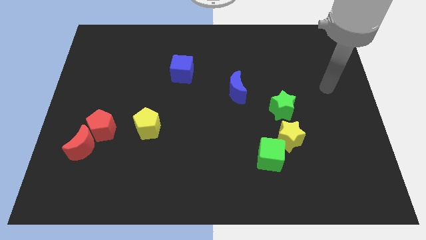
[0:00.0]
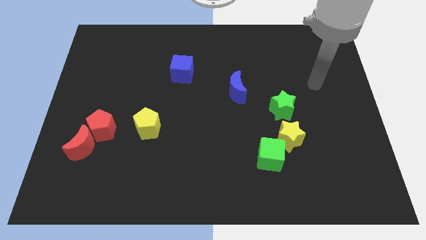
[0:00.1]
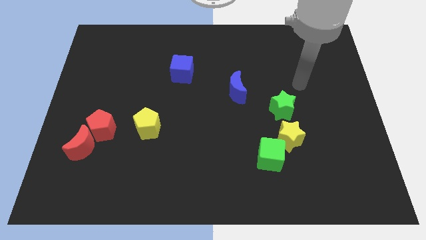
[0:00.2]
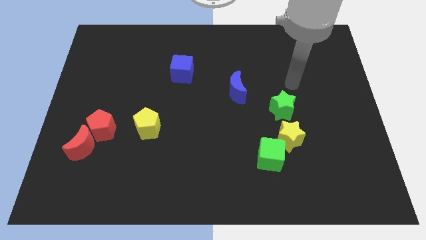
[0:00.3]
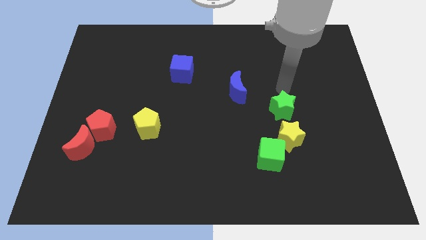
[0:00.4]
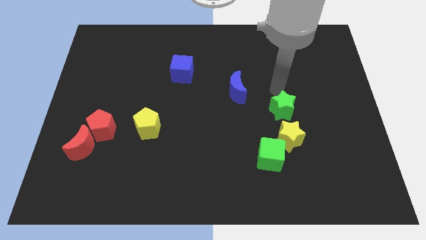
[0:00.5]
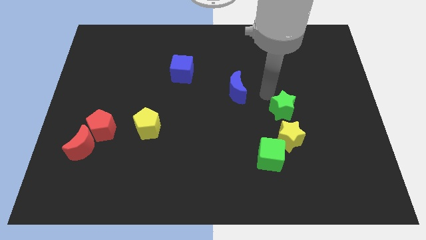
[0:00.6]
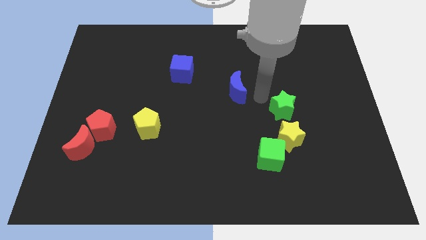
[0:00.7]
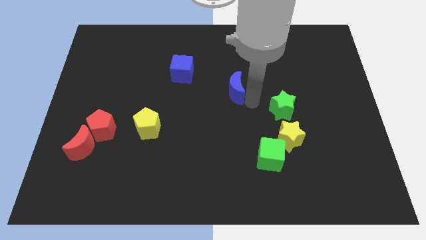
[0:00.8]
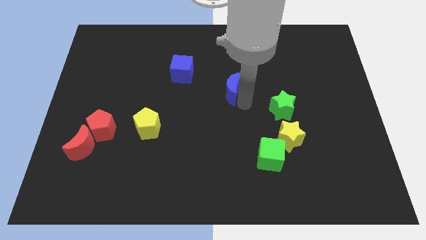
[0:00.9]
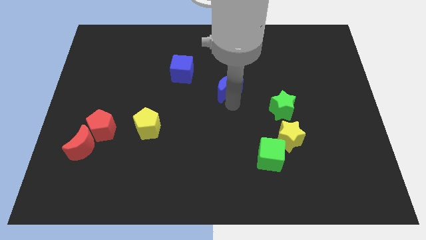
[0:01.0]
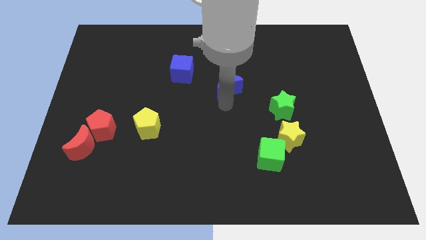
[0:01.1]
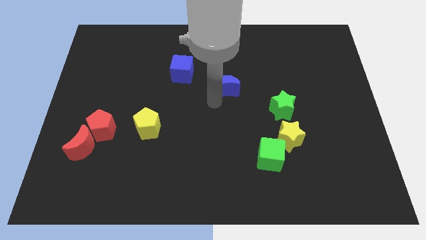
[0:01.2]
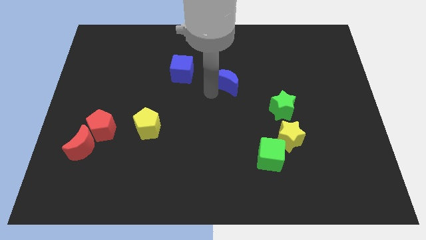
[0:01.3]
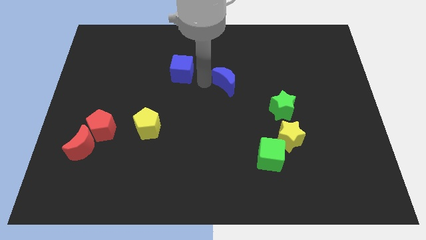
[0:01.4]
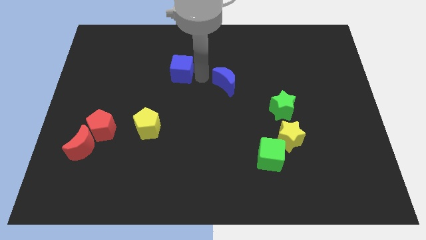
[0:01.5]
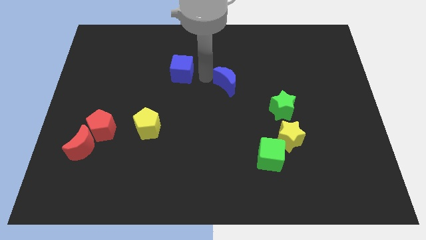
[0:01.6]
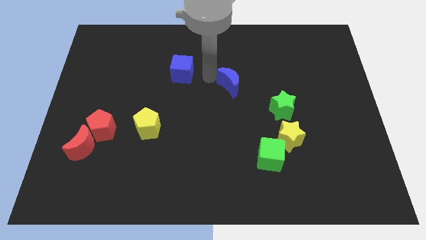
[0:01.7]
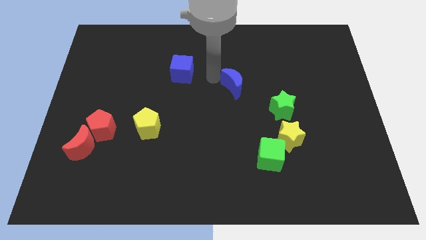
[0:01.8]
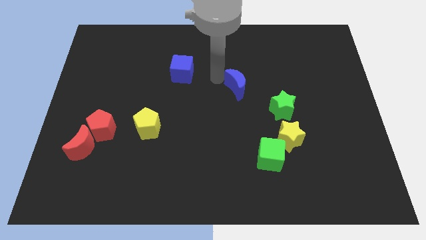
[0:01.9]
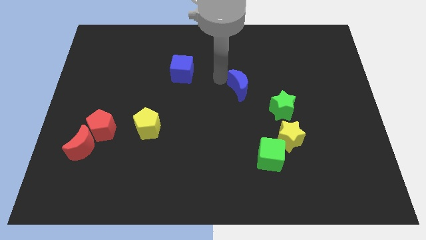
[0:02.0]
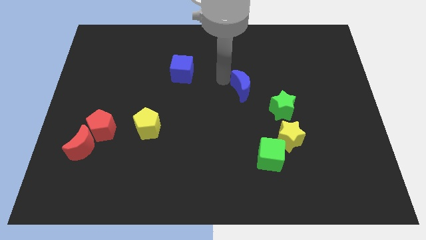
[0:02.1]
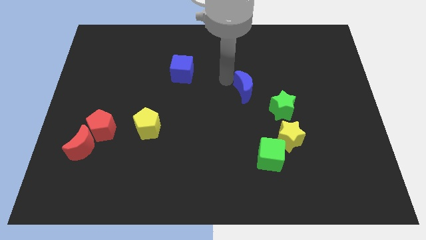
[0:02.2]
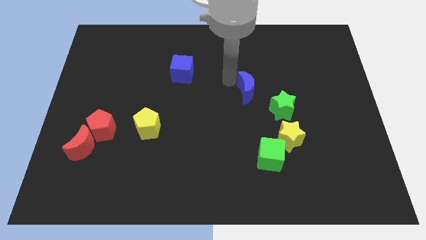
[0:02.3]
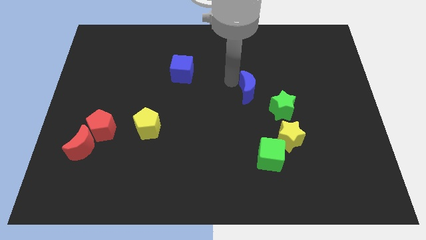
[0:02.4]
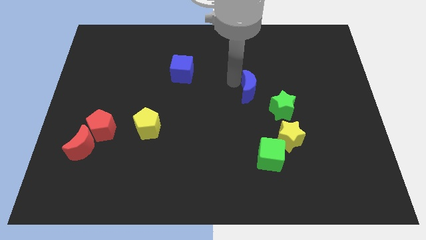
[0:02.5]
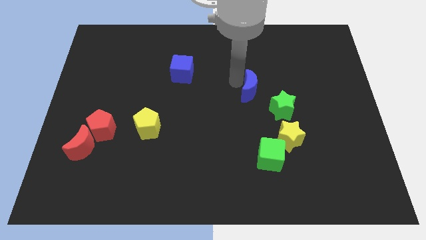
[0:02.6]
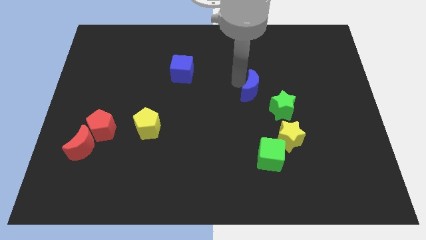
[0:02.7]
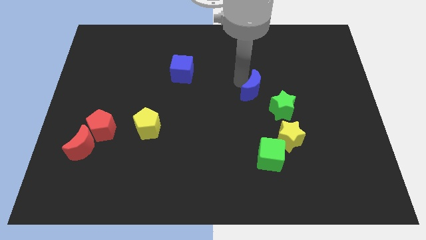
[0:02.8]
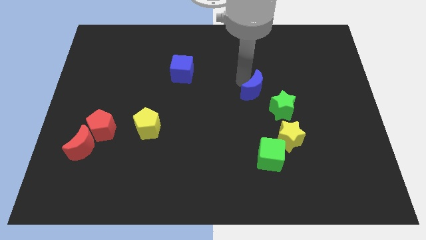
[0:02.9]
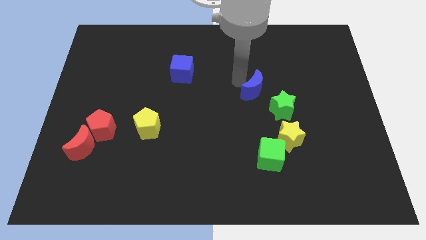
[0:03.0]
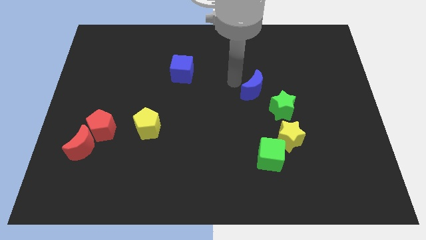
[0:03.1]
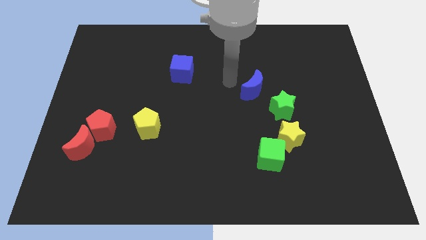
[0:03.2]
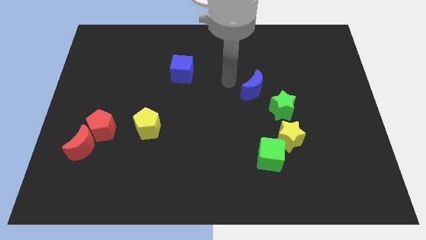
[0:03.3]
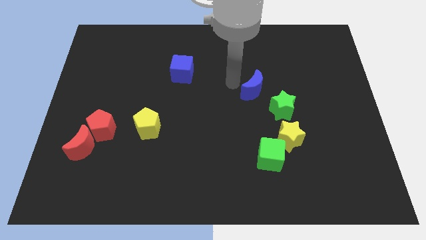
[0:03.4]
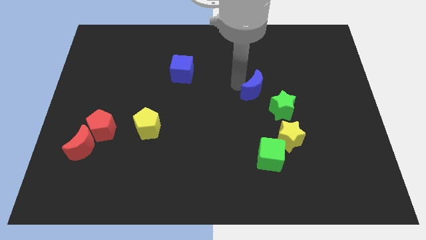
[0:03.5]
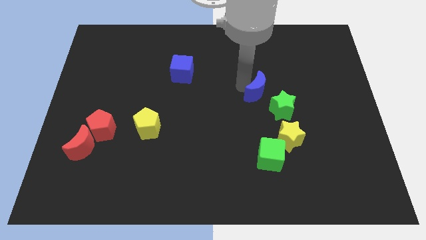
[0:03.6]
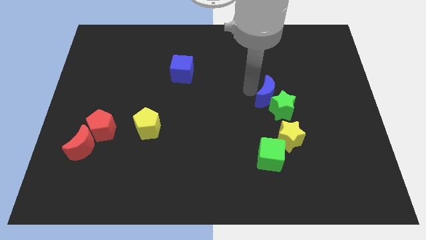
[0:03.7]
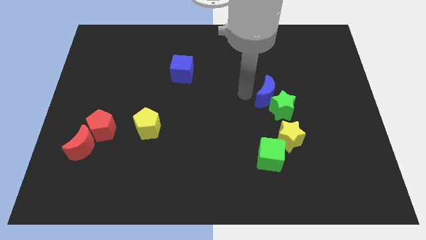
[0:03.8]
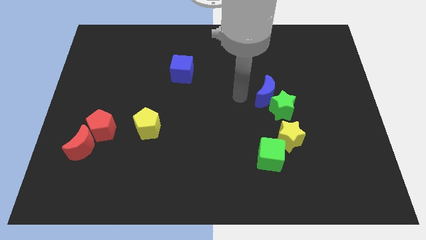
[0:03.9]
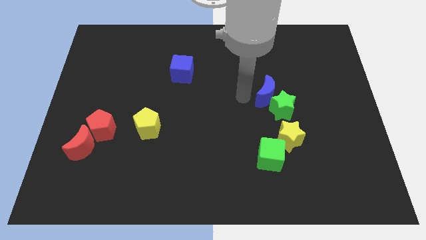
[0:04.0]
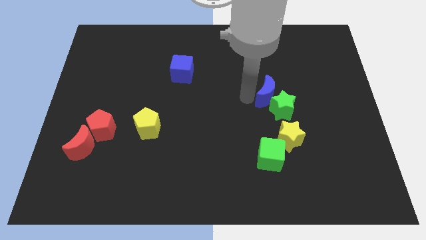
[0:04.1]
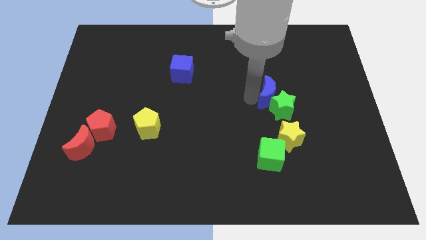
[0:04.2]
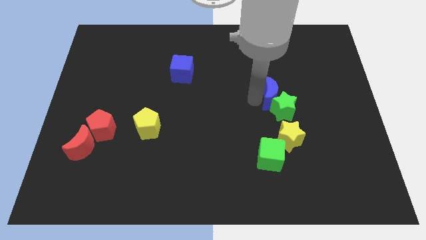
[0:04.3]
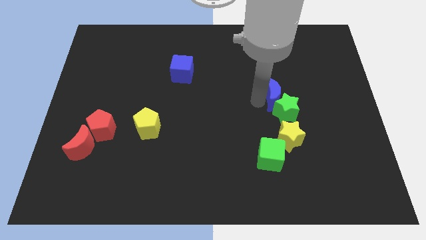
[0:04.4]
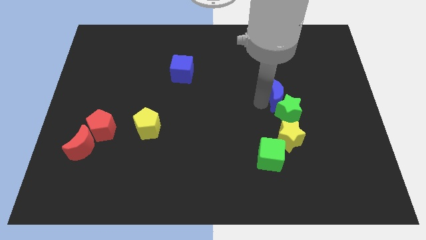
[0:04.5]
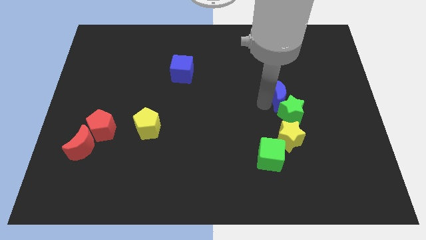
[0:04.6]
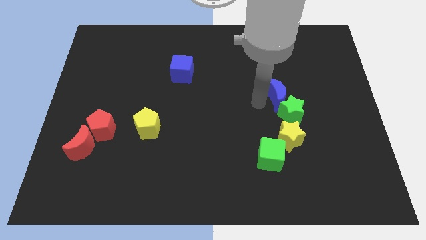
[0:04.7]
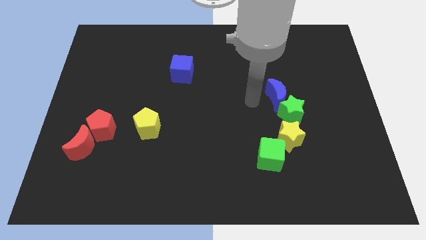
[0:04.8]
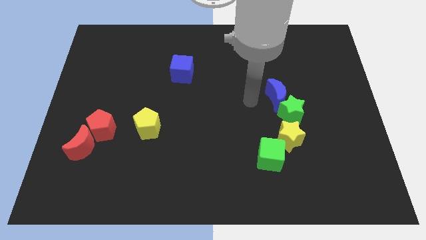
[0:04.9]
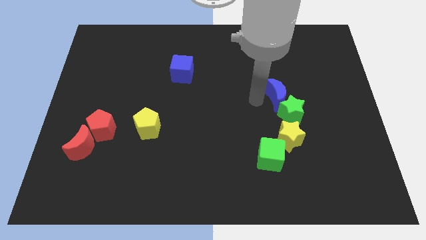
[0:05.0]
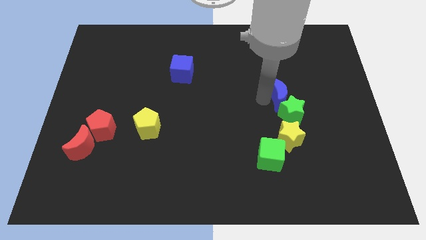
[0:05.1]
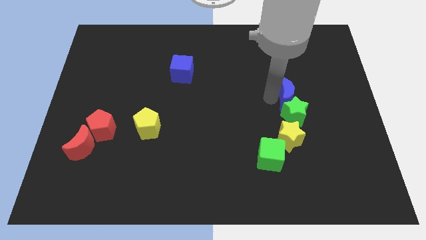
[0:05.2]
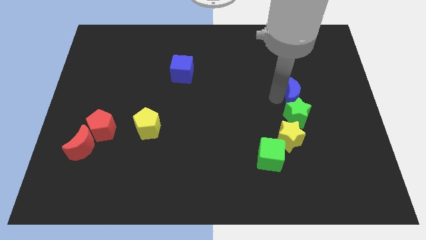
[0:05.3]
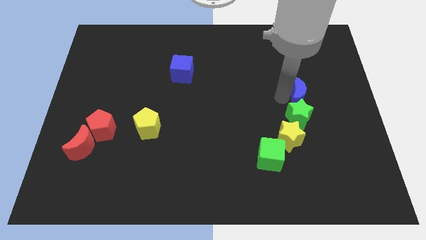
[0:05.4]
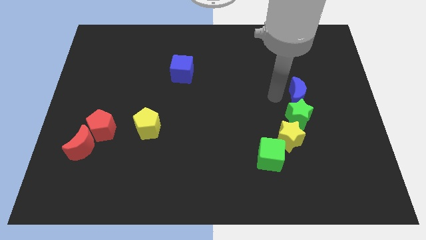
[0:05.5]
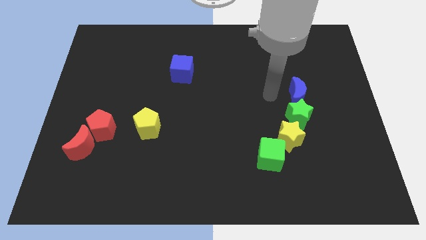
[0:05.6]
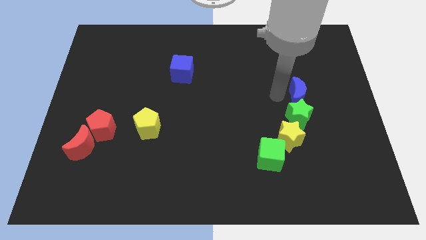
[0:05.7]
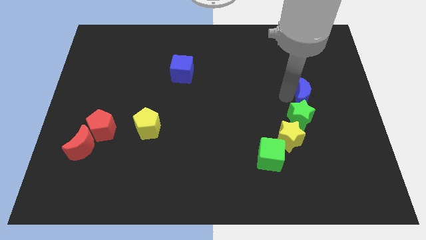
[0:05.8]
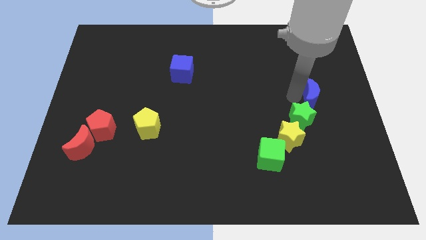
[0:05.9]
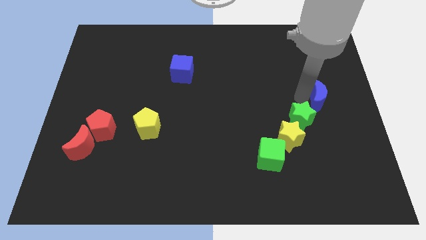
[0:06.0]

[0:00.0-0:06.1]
slide the blue moon to the right side
